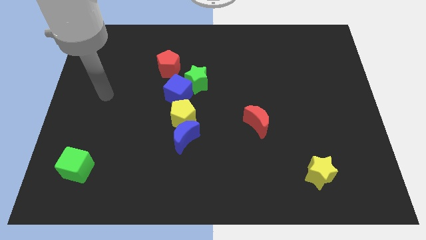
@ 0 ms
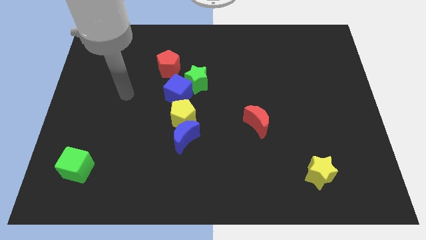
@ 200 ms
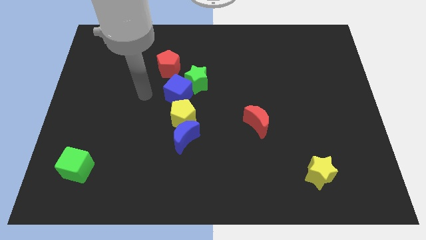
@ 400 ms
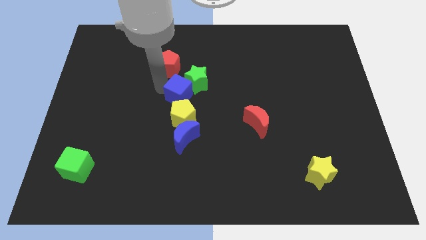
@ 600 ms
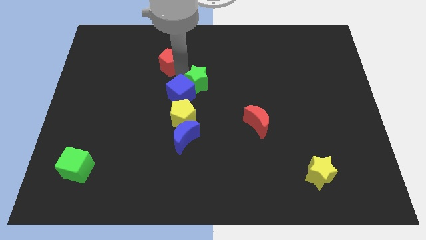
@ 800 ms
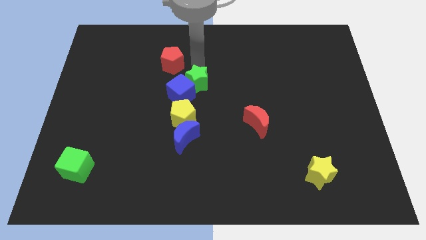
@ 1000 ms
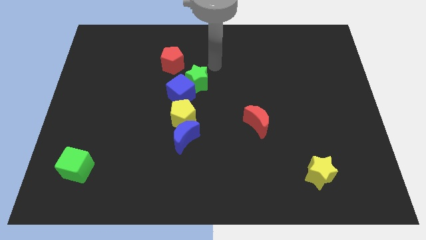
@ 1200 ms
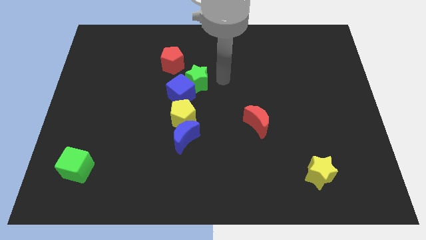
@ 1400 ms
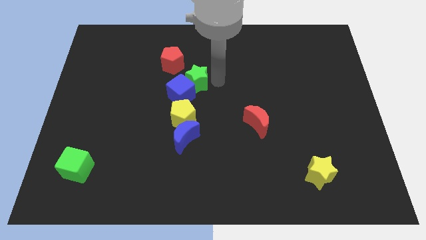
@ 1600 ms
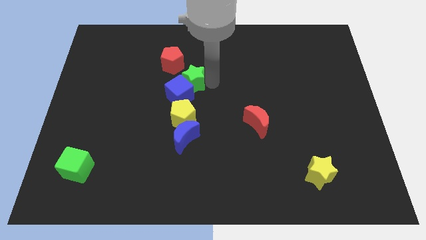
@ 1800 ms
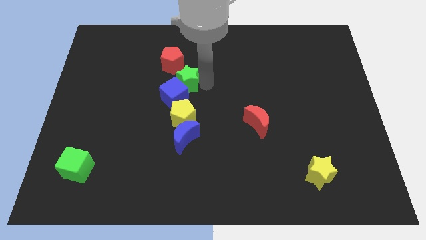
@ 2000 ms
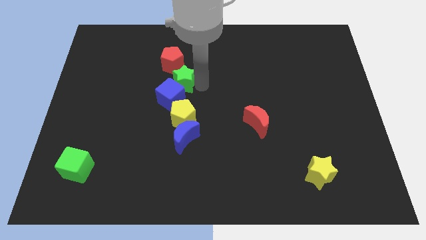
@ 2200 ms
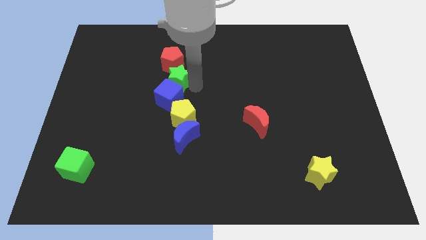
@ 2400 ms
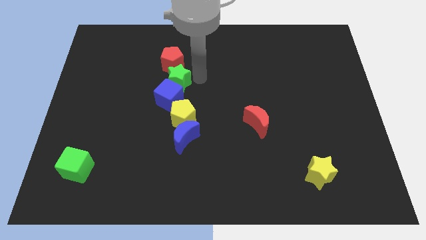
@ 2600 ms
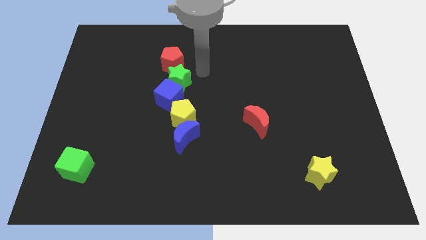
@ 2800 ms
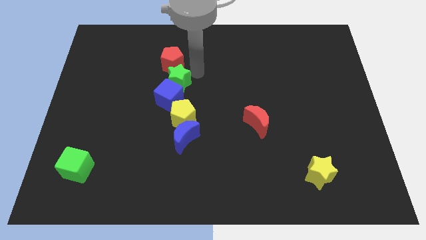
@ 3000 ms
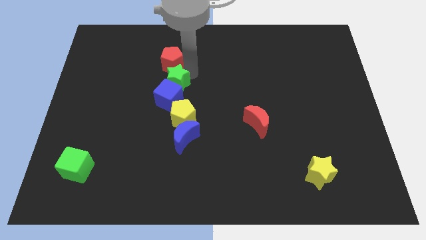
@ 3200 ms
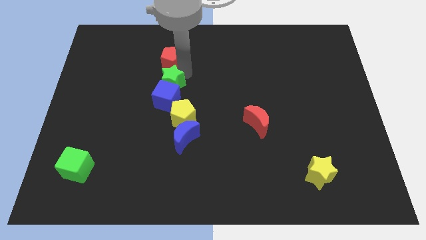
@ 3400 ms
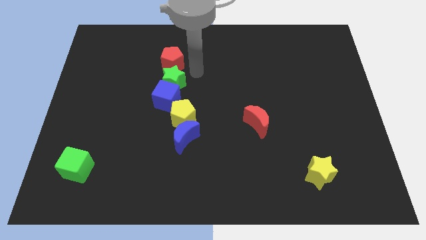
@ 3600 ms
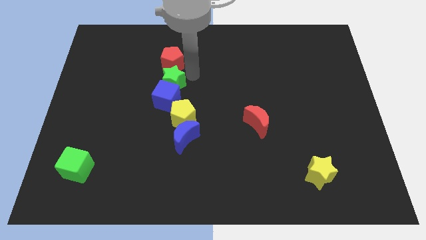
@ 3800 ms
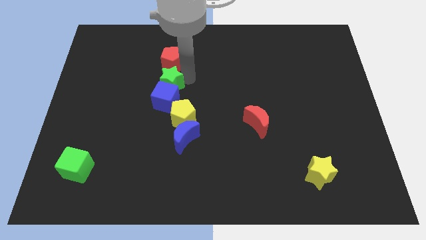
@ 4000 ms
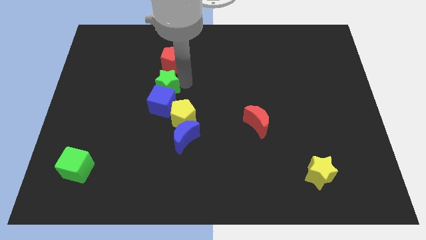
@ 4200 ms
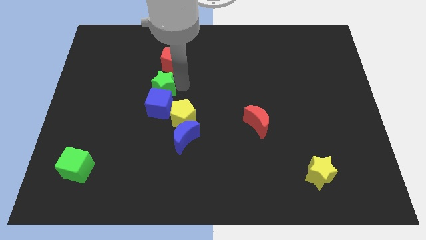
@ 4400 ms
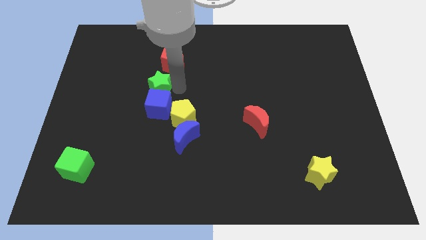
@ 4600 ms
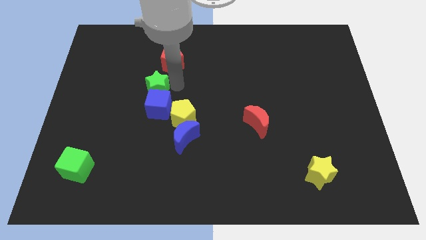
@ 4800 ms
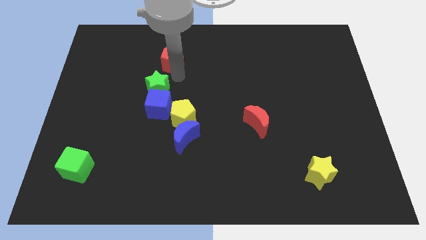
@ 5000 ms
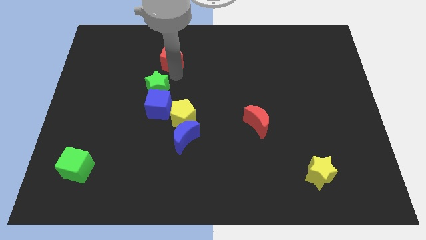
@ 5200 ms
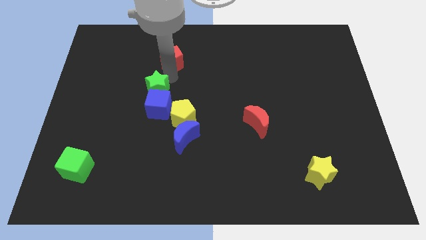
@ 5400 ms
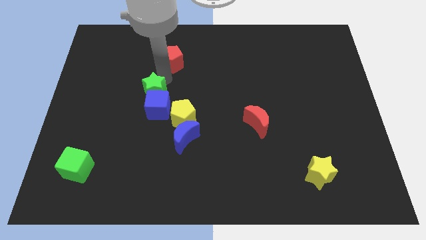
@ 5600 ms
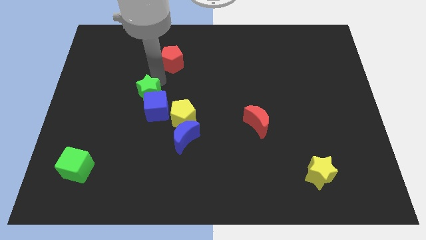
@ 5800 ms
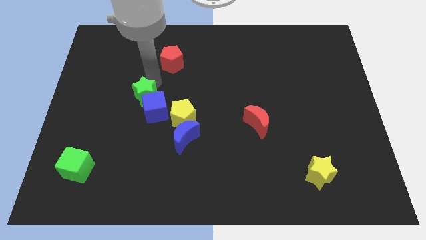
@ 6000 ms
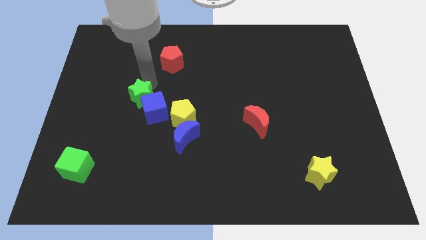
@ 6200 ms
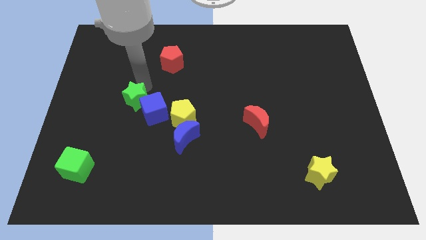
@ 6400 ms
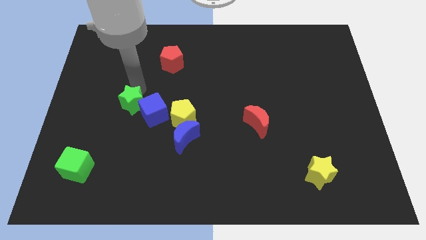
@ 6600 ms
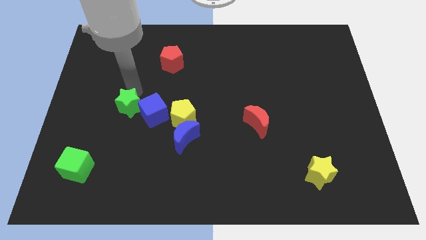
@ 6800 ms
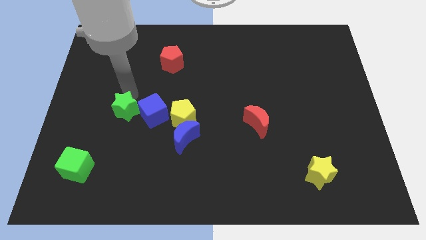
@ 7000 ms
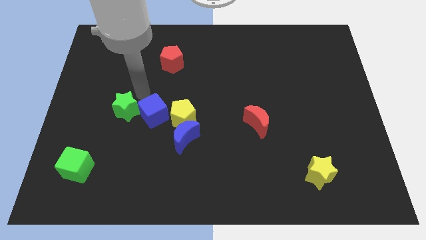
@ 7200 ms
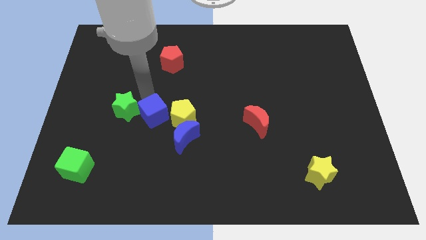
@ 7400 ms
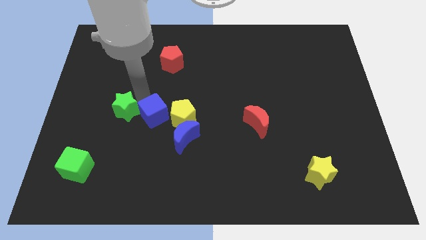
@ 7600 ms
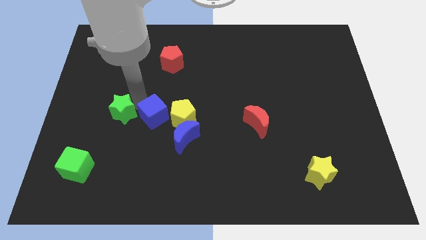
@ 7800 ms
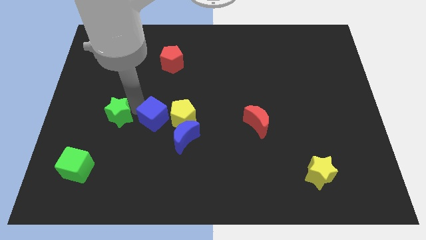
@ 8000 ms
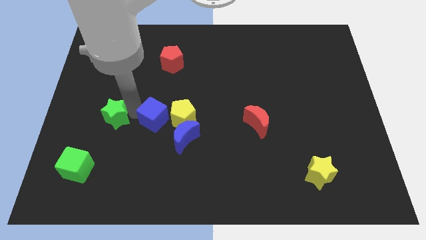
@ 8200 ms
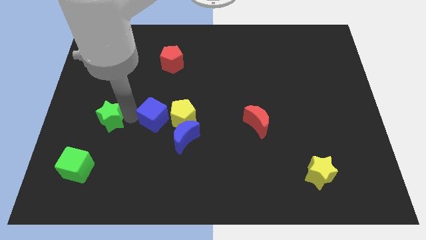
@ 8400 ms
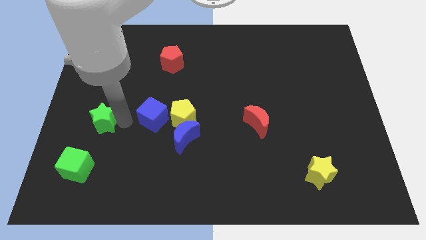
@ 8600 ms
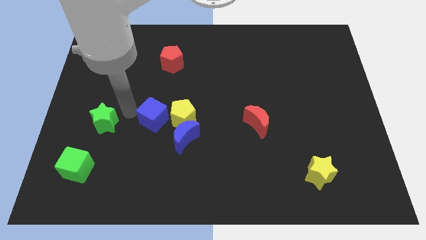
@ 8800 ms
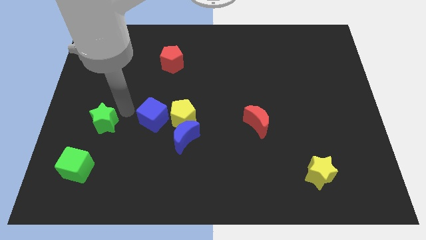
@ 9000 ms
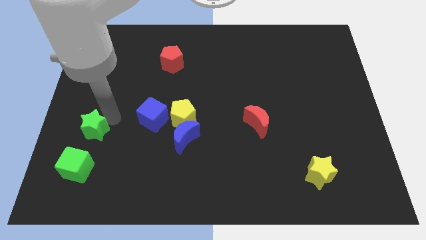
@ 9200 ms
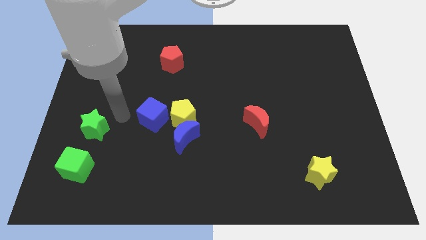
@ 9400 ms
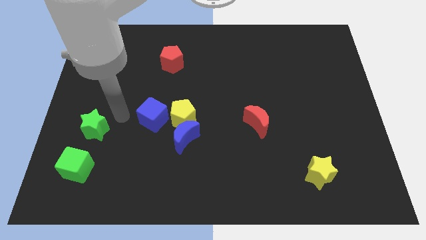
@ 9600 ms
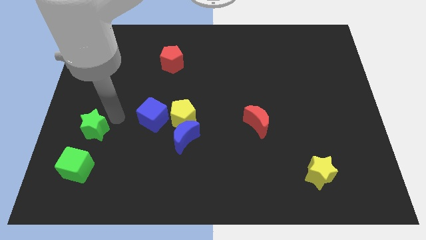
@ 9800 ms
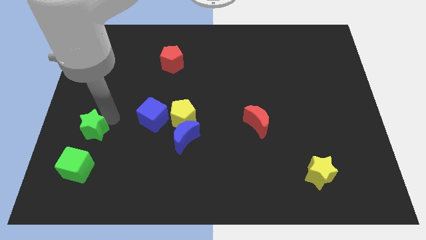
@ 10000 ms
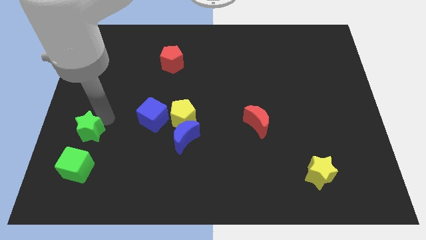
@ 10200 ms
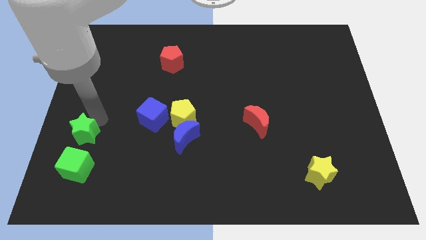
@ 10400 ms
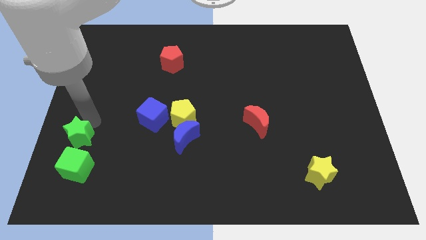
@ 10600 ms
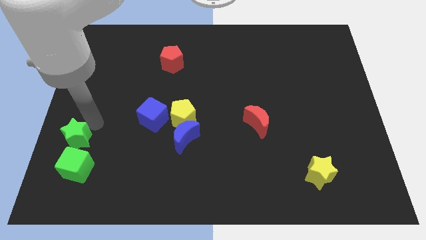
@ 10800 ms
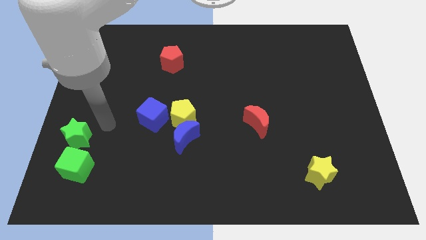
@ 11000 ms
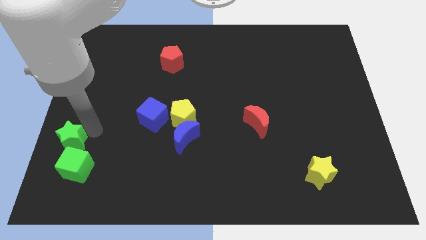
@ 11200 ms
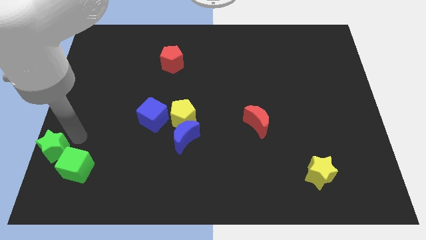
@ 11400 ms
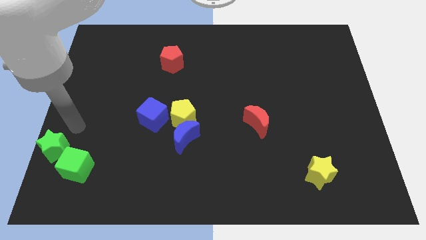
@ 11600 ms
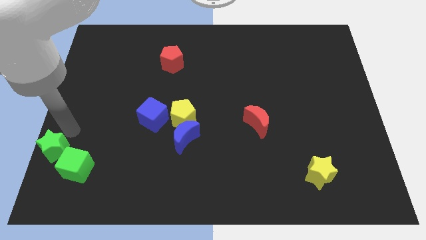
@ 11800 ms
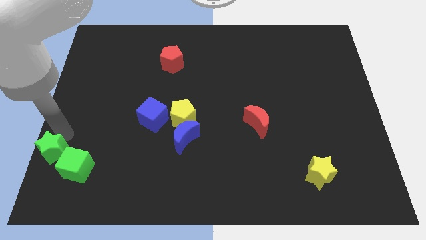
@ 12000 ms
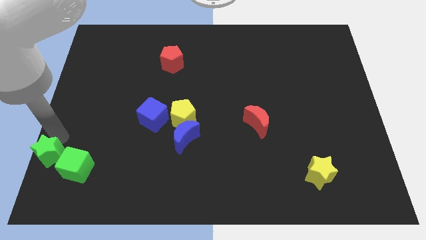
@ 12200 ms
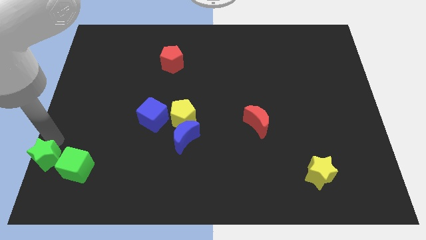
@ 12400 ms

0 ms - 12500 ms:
move the green star to the bottom left corner

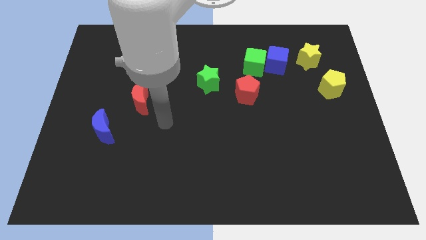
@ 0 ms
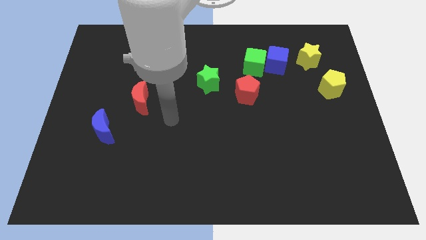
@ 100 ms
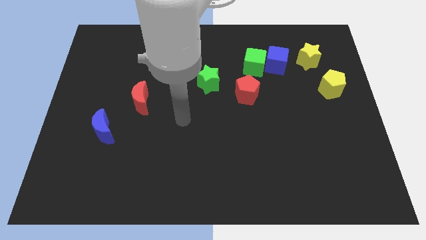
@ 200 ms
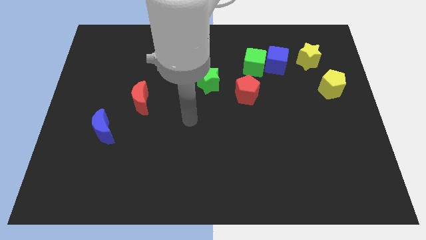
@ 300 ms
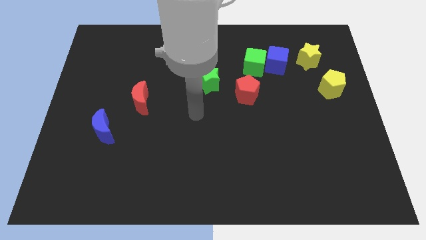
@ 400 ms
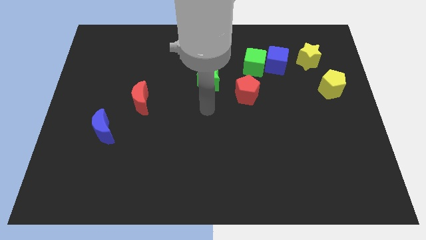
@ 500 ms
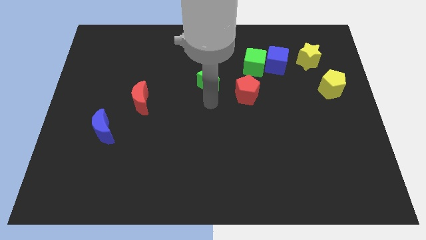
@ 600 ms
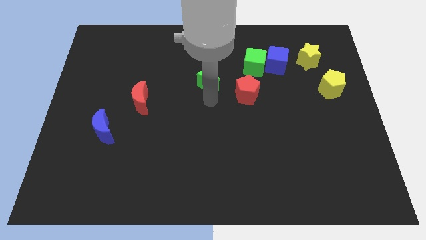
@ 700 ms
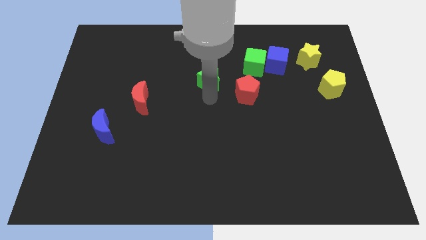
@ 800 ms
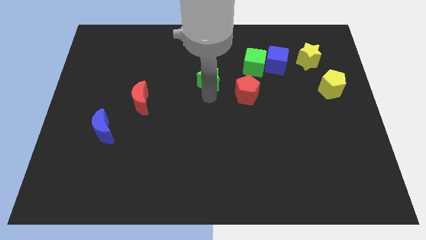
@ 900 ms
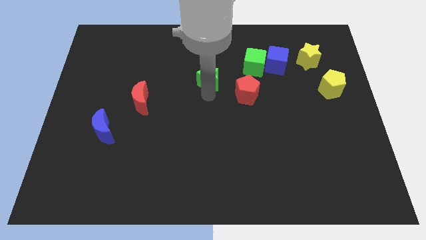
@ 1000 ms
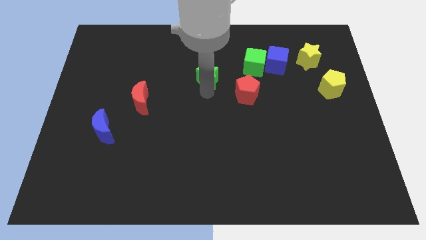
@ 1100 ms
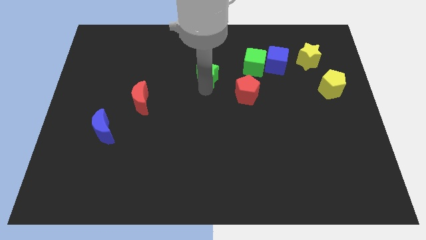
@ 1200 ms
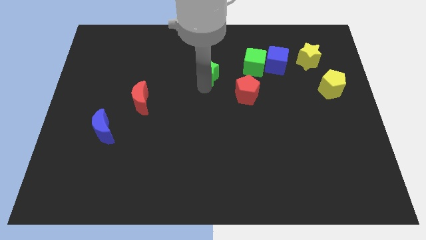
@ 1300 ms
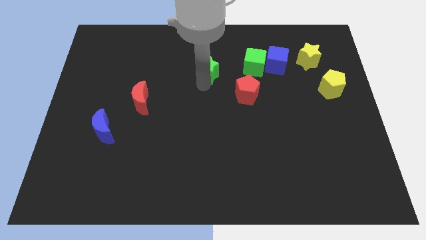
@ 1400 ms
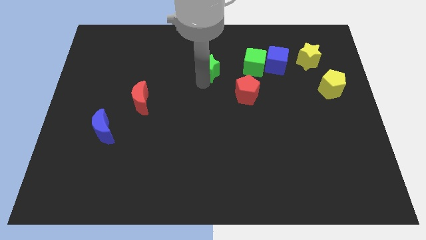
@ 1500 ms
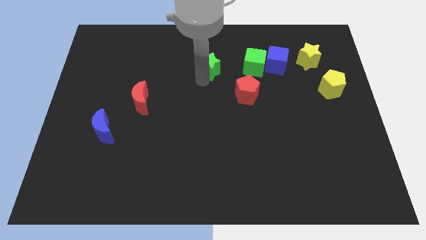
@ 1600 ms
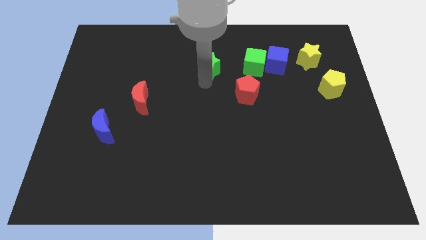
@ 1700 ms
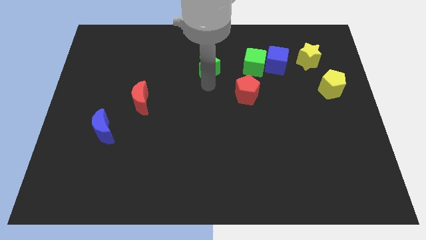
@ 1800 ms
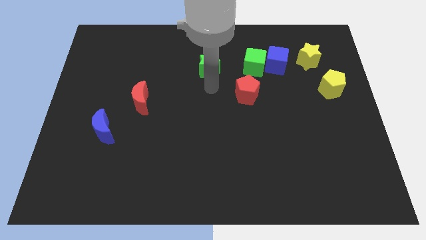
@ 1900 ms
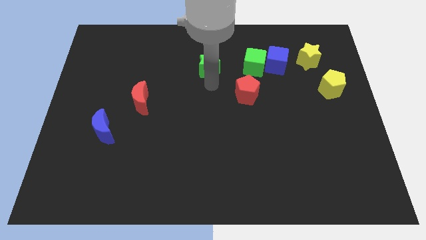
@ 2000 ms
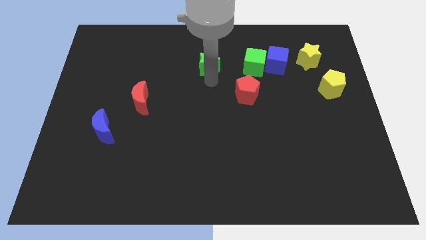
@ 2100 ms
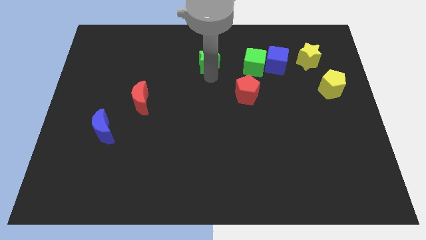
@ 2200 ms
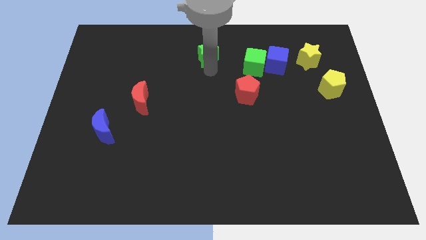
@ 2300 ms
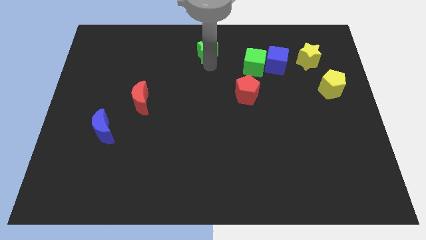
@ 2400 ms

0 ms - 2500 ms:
move the green star to the towards your base
